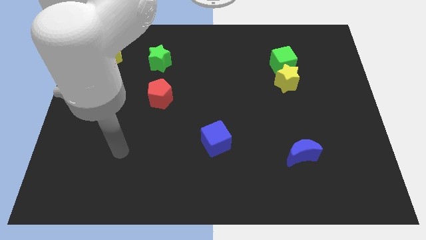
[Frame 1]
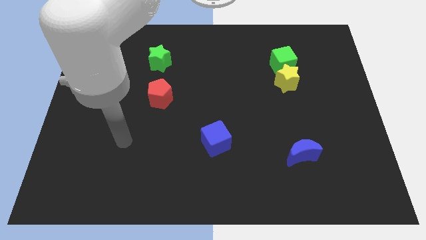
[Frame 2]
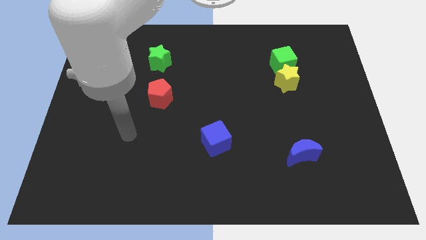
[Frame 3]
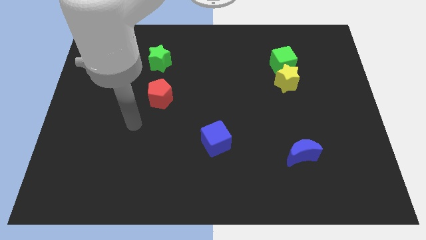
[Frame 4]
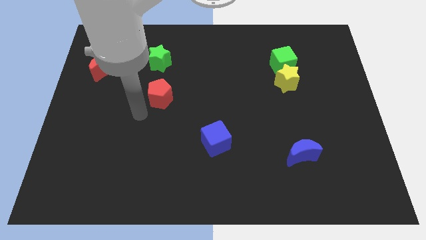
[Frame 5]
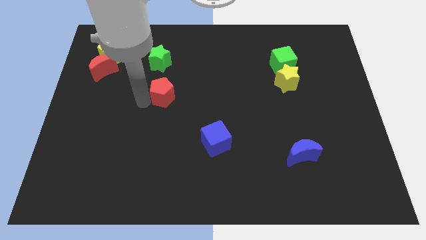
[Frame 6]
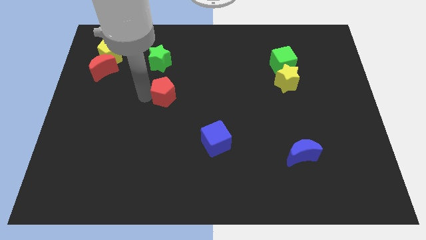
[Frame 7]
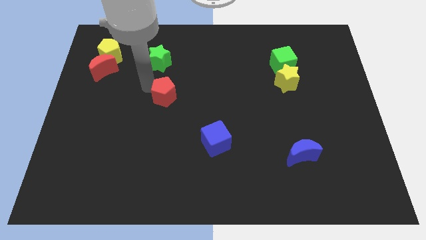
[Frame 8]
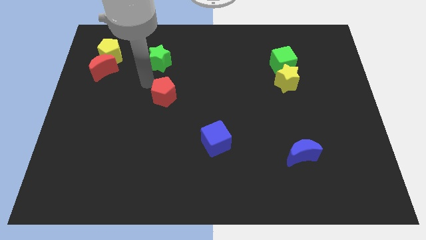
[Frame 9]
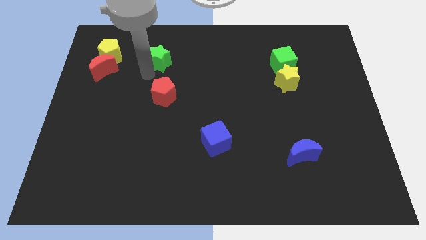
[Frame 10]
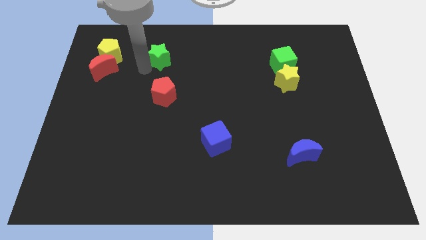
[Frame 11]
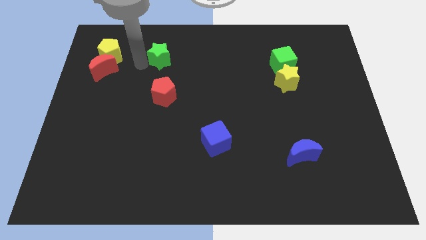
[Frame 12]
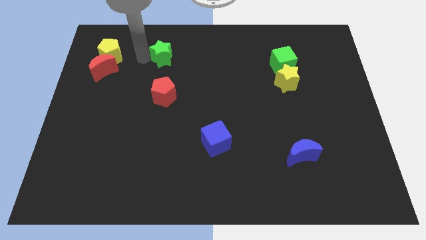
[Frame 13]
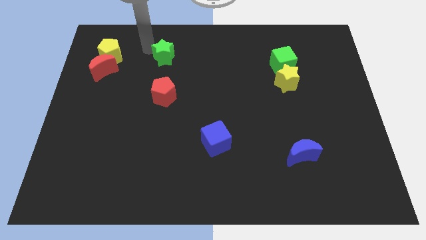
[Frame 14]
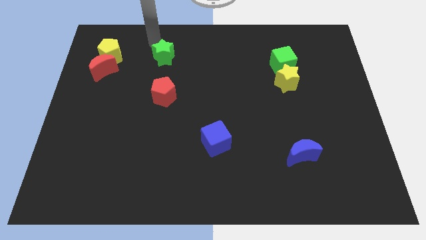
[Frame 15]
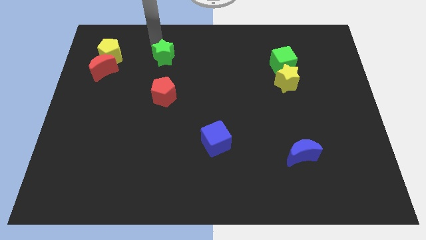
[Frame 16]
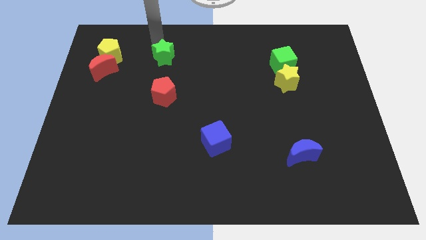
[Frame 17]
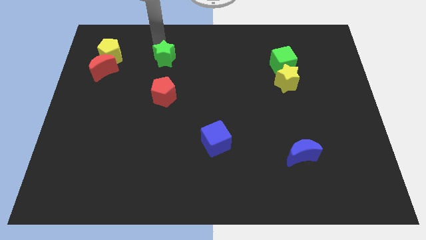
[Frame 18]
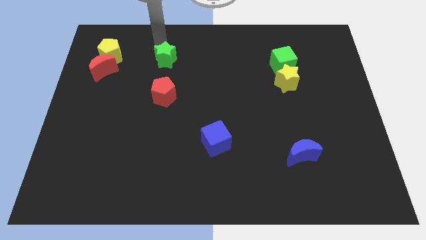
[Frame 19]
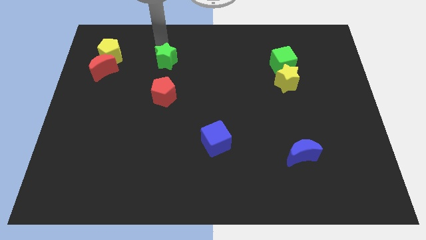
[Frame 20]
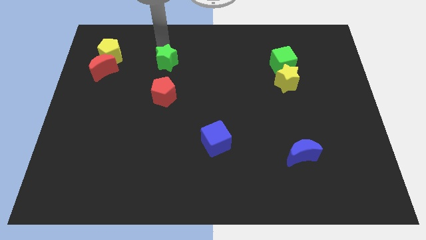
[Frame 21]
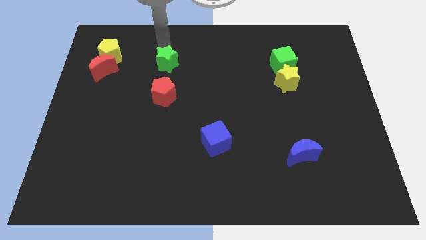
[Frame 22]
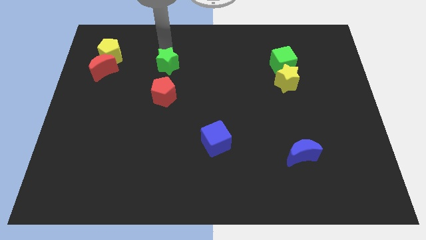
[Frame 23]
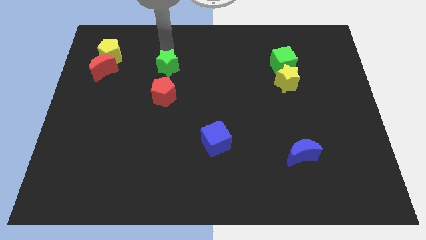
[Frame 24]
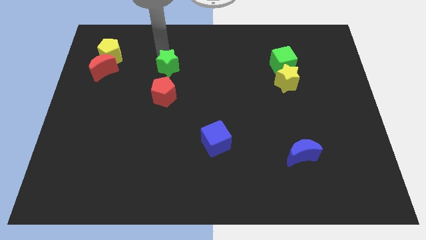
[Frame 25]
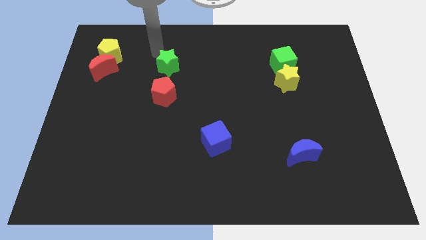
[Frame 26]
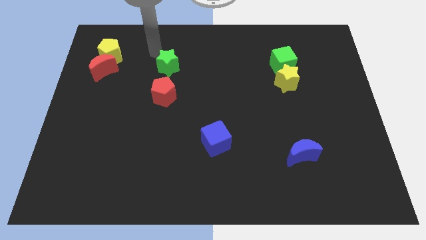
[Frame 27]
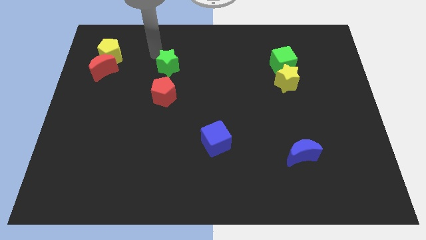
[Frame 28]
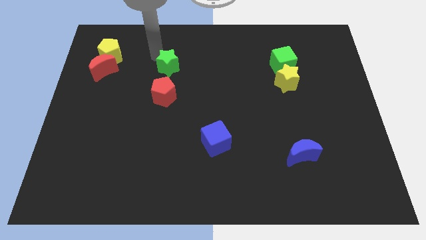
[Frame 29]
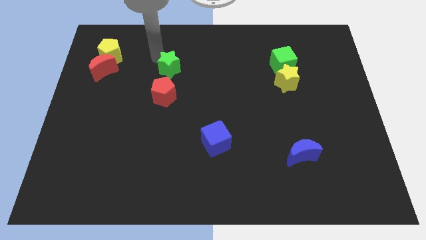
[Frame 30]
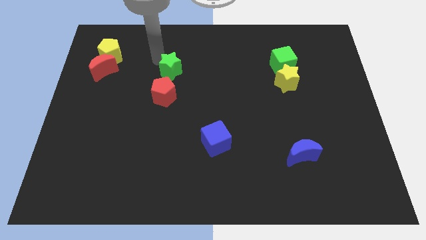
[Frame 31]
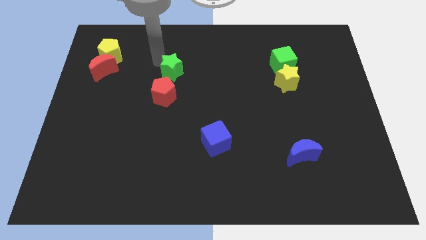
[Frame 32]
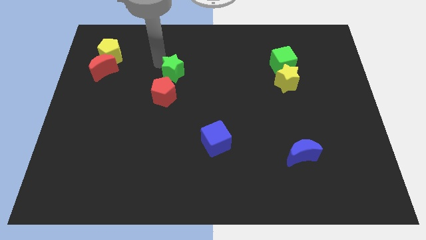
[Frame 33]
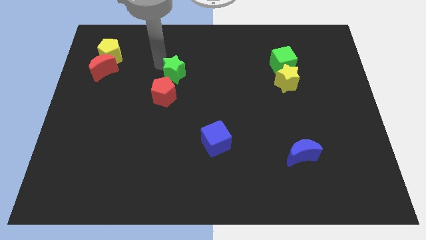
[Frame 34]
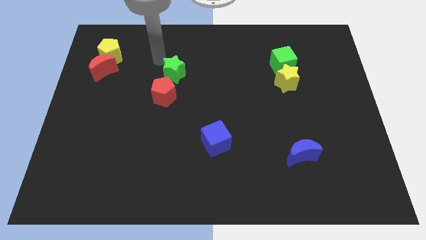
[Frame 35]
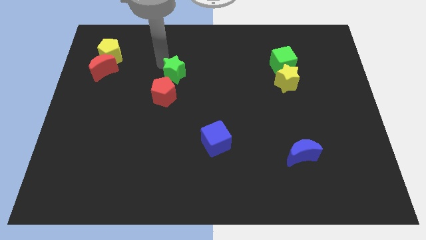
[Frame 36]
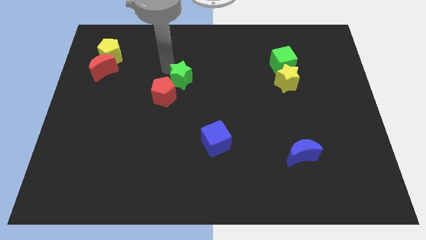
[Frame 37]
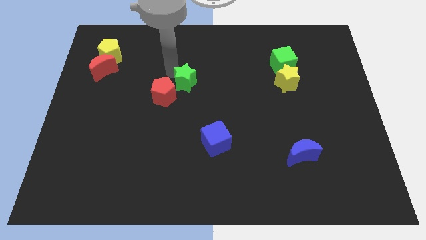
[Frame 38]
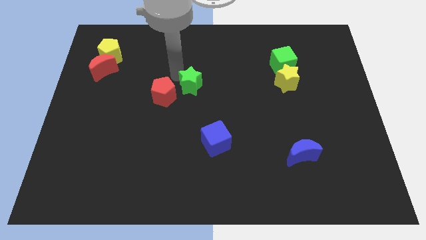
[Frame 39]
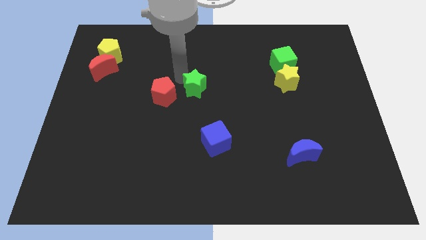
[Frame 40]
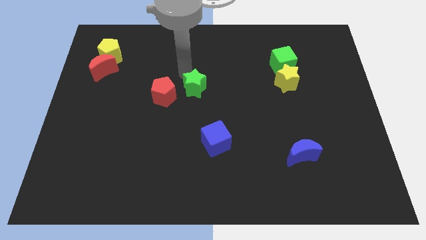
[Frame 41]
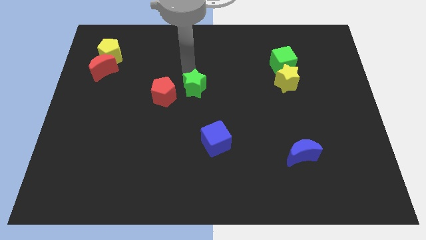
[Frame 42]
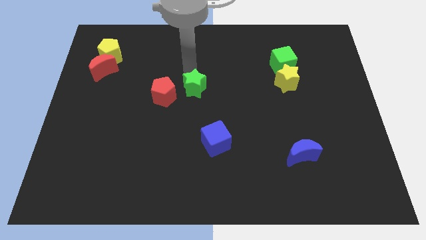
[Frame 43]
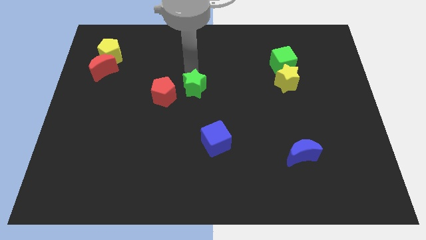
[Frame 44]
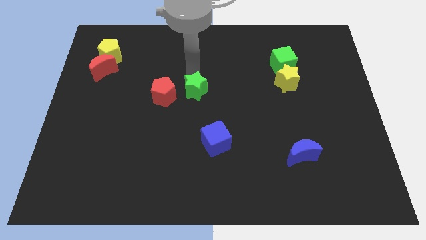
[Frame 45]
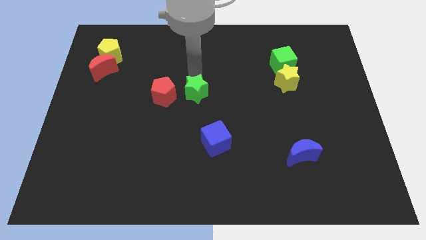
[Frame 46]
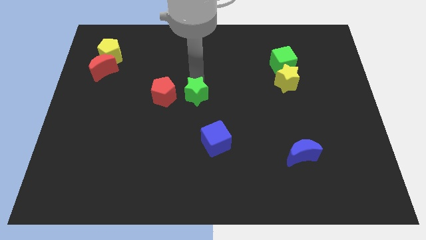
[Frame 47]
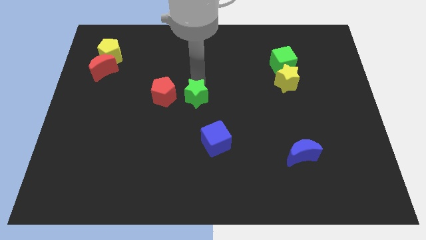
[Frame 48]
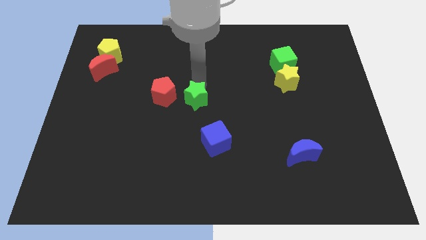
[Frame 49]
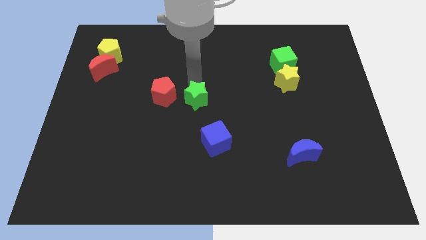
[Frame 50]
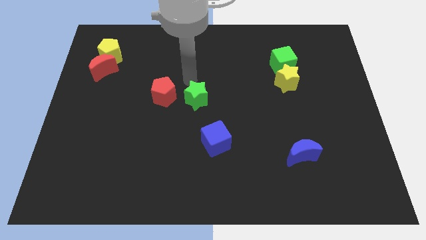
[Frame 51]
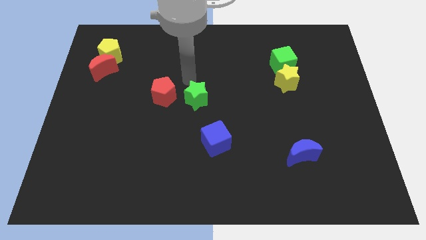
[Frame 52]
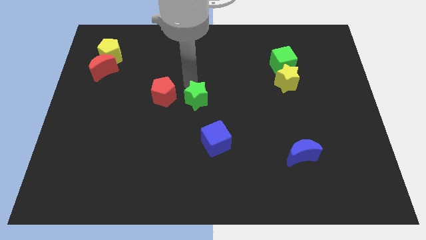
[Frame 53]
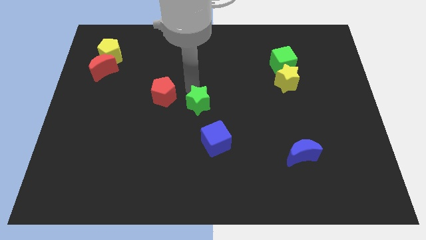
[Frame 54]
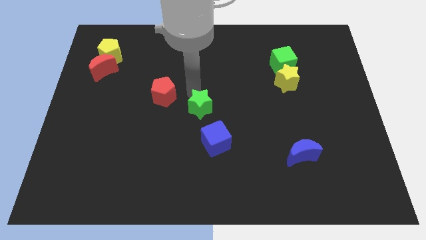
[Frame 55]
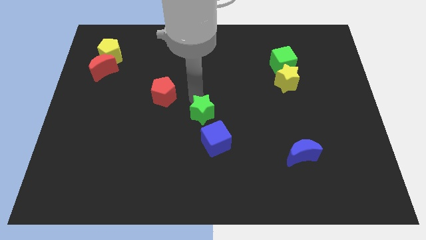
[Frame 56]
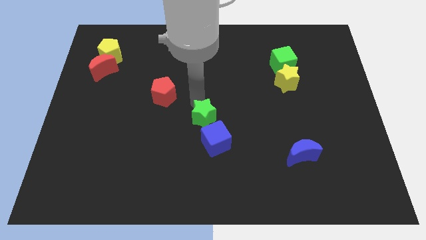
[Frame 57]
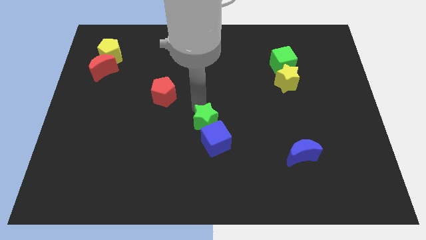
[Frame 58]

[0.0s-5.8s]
move the green star towards the blue cube

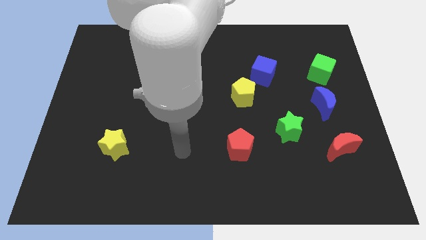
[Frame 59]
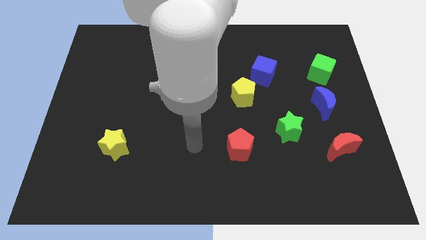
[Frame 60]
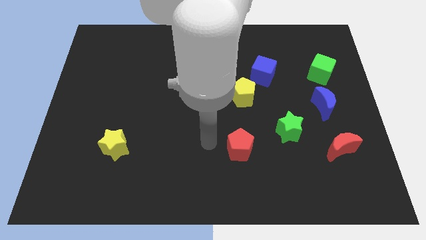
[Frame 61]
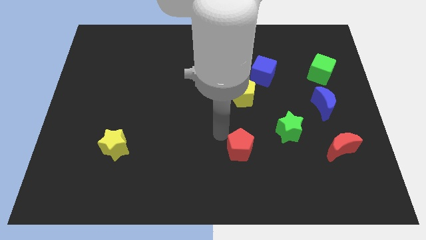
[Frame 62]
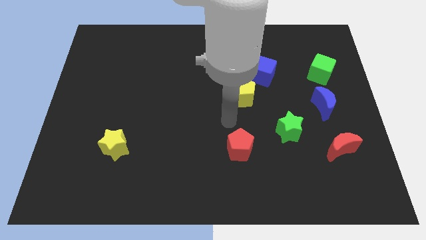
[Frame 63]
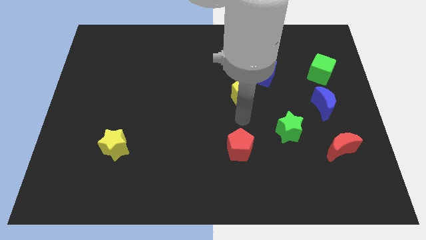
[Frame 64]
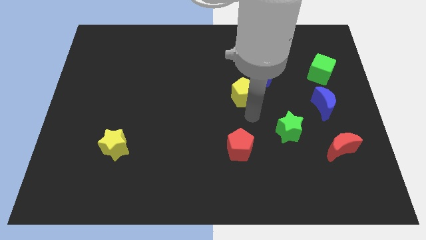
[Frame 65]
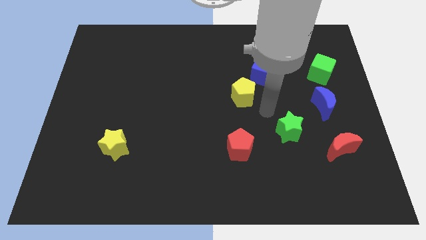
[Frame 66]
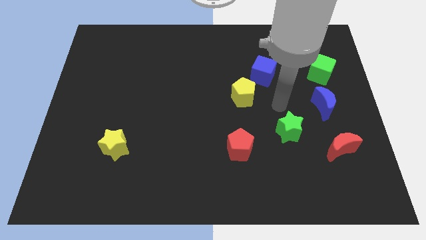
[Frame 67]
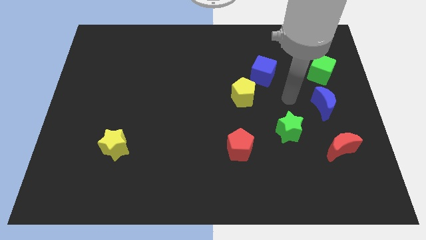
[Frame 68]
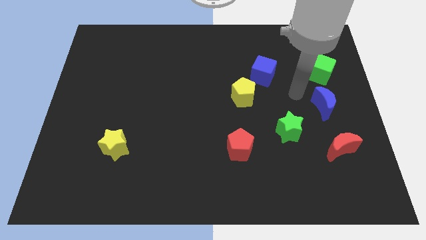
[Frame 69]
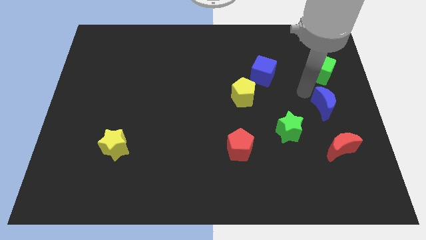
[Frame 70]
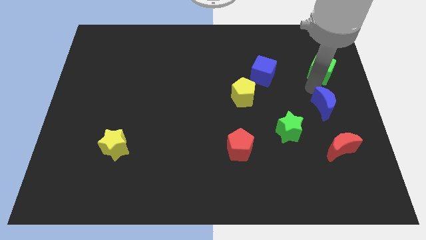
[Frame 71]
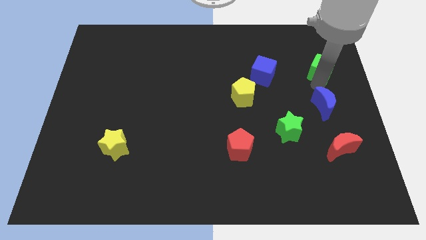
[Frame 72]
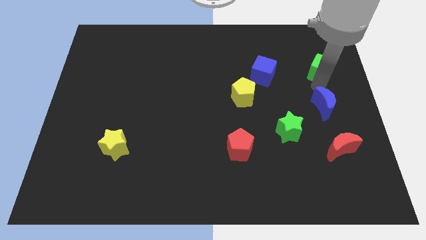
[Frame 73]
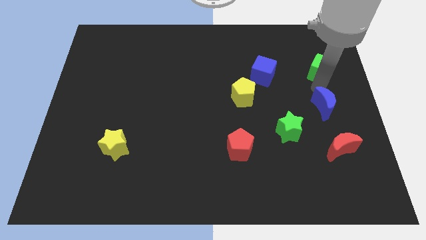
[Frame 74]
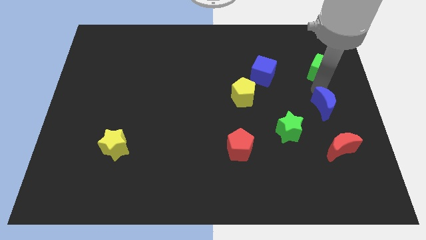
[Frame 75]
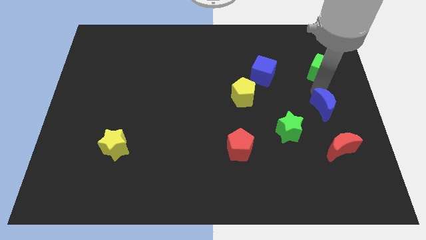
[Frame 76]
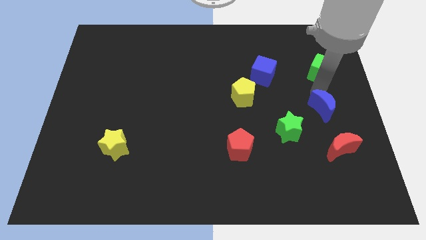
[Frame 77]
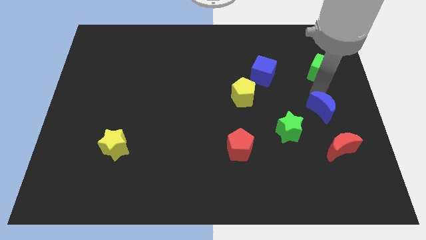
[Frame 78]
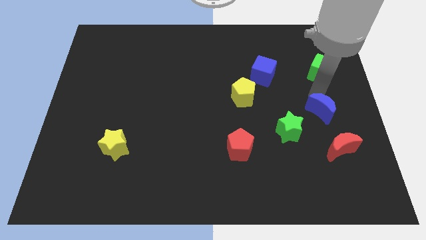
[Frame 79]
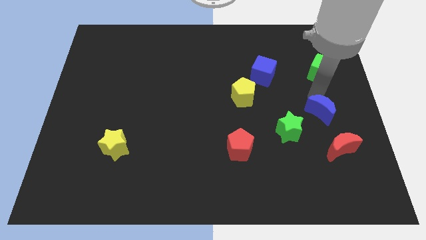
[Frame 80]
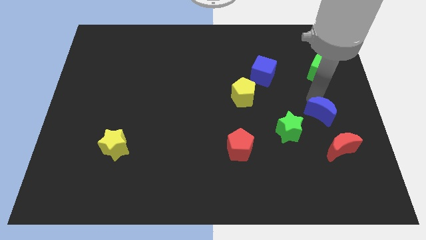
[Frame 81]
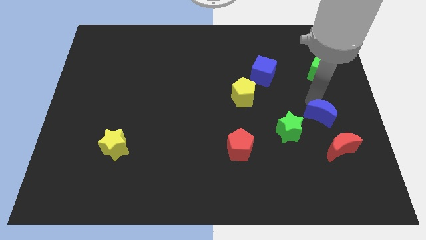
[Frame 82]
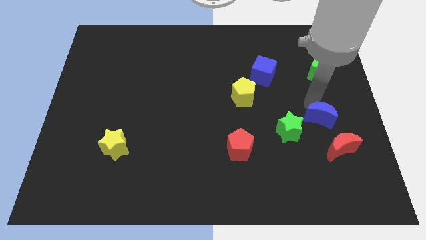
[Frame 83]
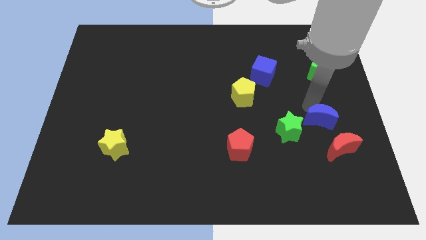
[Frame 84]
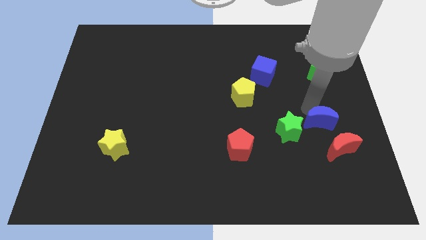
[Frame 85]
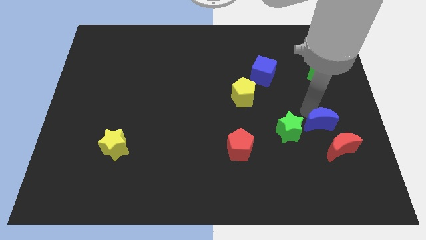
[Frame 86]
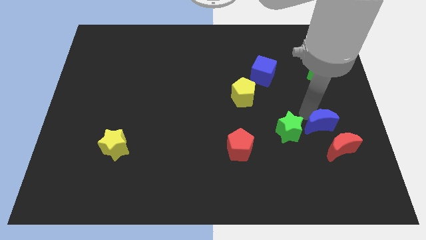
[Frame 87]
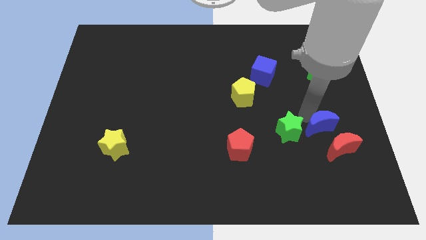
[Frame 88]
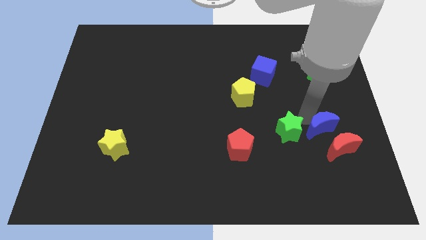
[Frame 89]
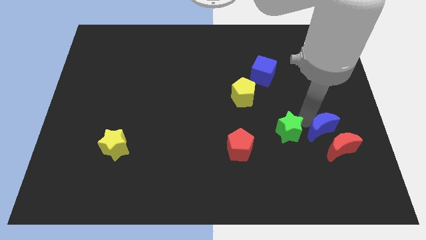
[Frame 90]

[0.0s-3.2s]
push the blue moon close to the red moon
